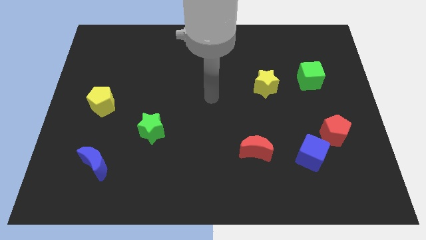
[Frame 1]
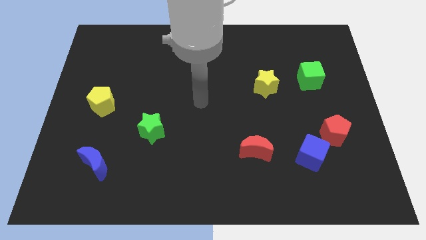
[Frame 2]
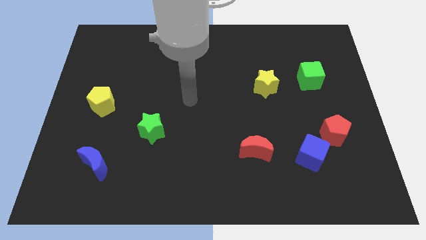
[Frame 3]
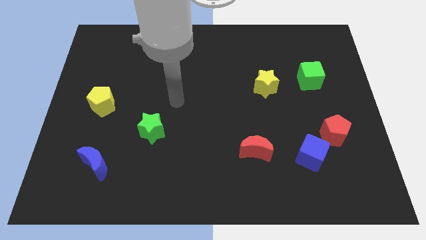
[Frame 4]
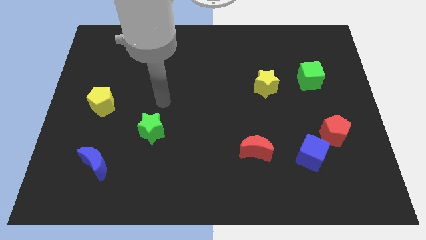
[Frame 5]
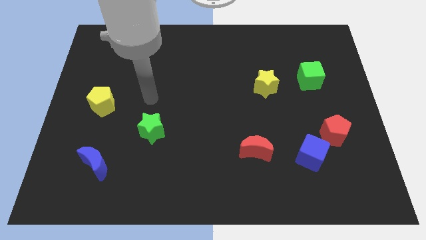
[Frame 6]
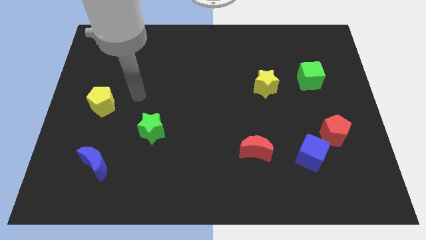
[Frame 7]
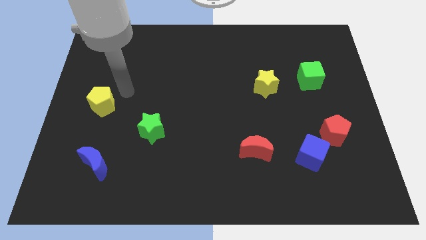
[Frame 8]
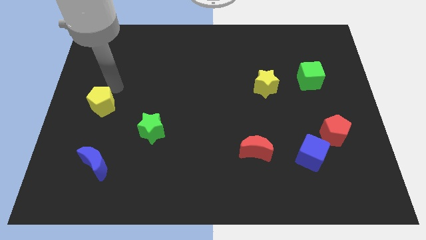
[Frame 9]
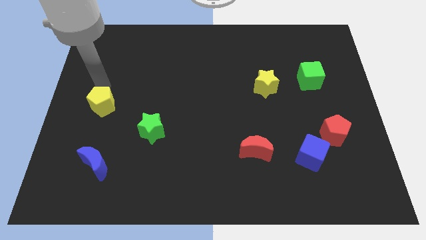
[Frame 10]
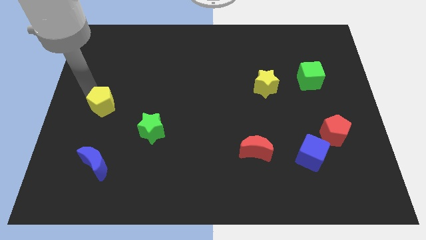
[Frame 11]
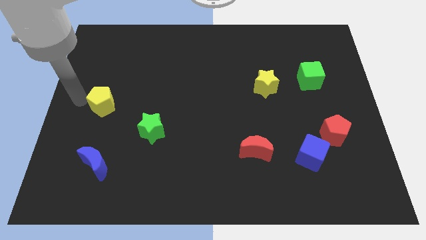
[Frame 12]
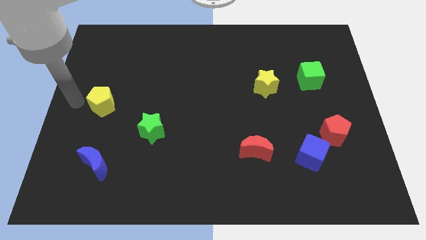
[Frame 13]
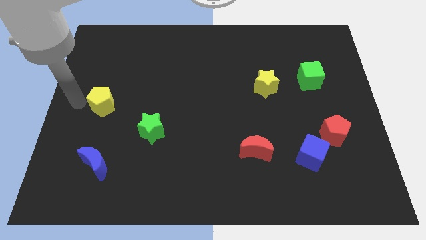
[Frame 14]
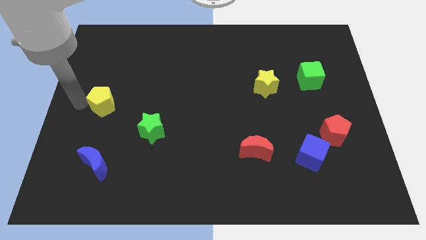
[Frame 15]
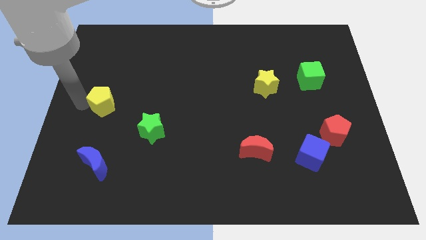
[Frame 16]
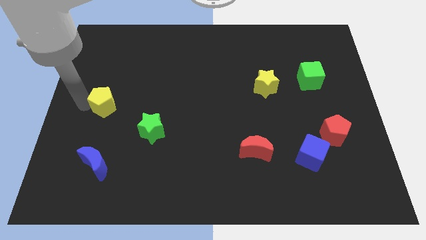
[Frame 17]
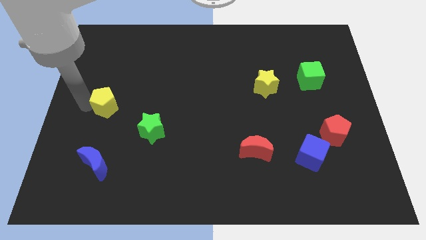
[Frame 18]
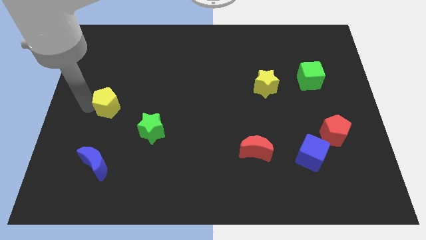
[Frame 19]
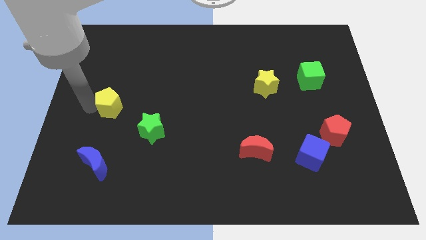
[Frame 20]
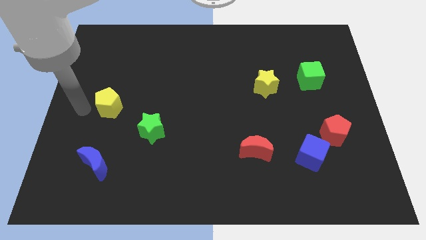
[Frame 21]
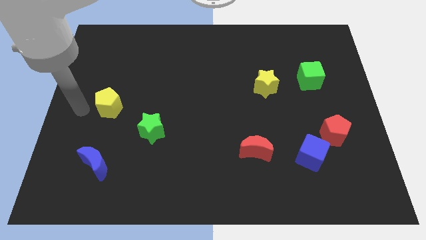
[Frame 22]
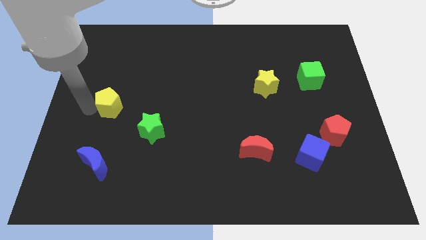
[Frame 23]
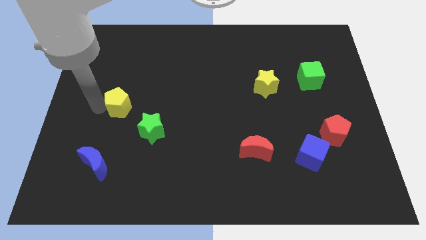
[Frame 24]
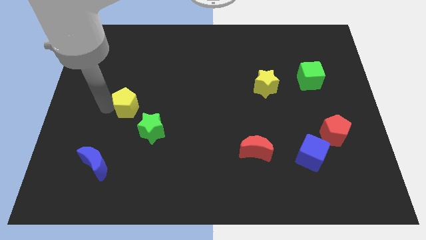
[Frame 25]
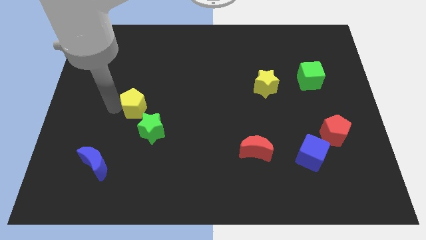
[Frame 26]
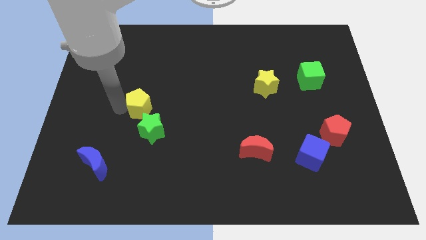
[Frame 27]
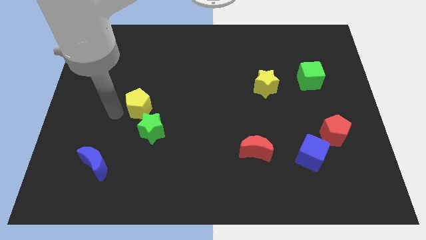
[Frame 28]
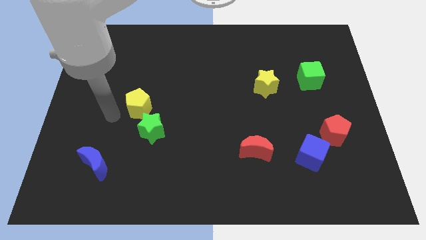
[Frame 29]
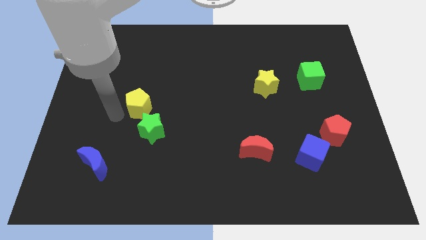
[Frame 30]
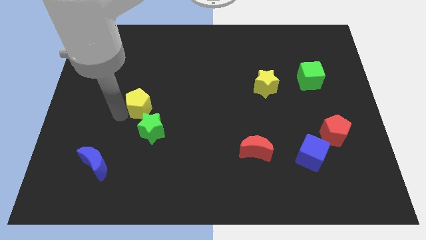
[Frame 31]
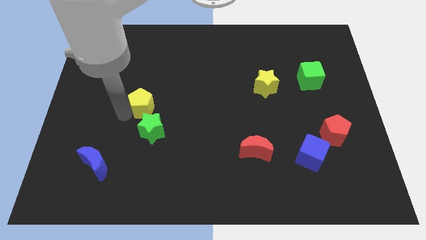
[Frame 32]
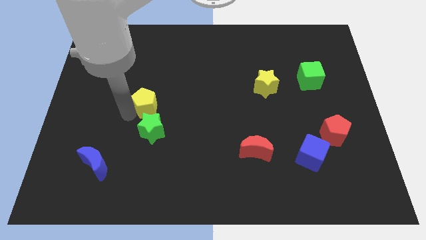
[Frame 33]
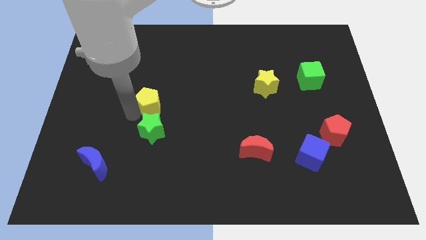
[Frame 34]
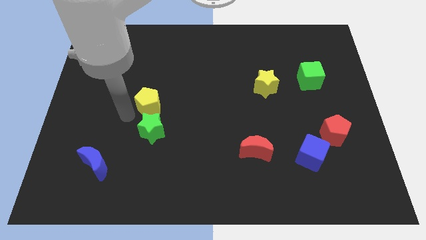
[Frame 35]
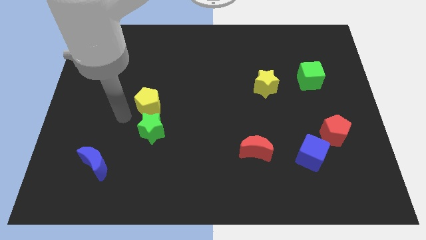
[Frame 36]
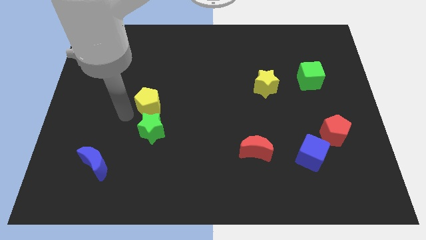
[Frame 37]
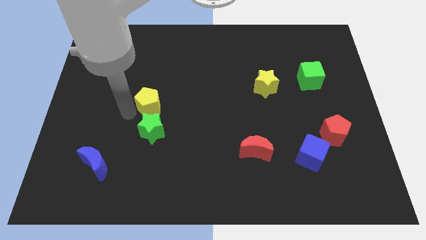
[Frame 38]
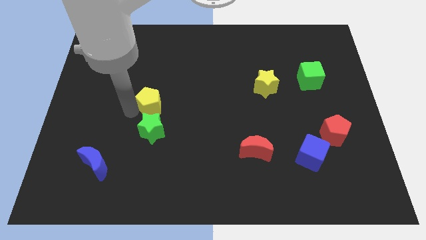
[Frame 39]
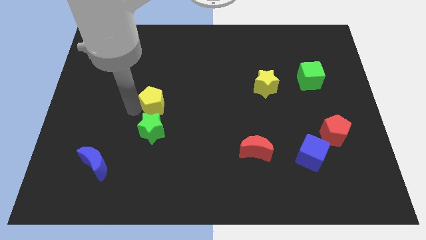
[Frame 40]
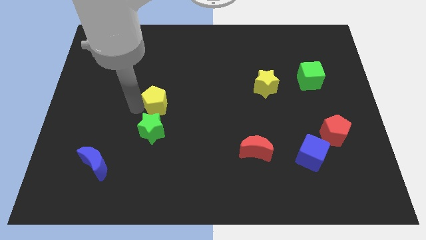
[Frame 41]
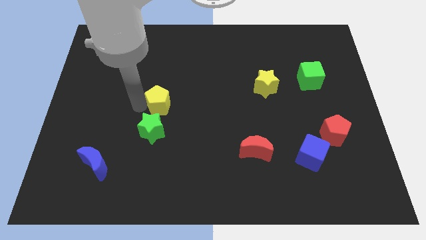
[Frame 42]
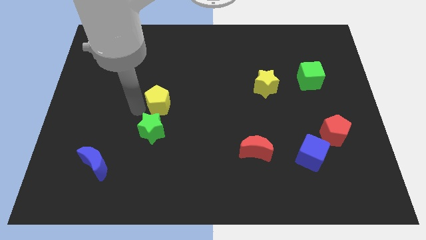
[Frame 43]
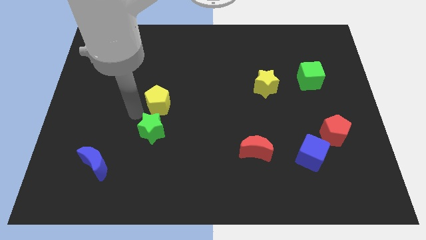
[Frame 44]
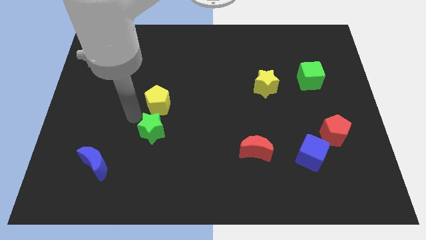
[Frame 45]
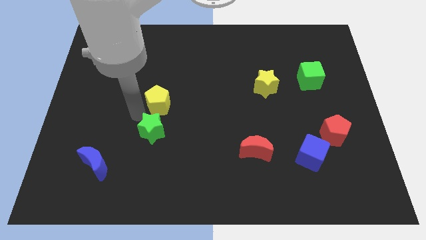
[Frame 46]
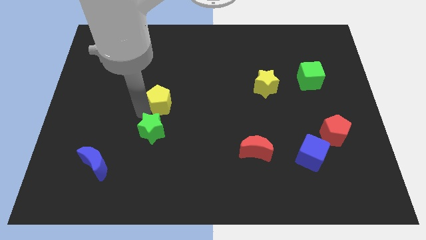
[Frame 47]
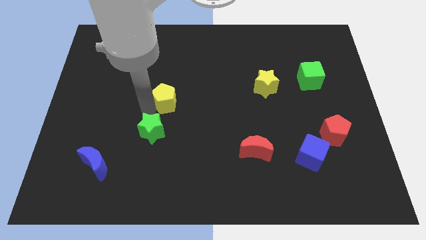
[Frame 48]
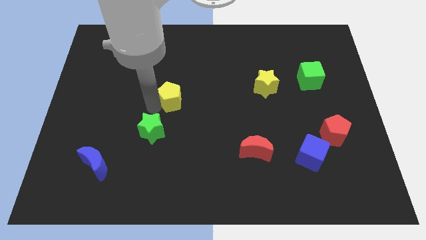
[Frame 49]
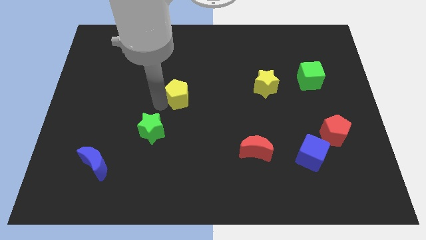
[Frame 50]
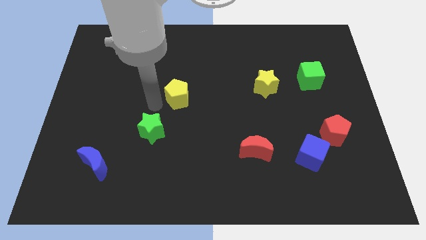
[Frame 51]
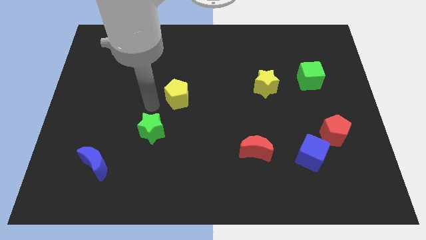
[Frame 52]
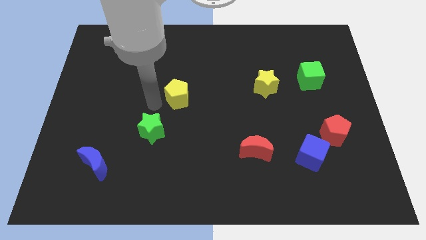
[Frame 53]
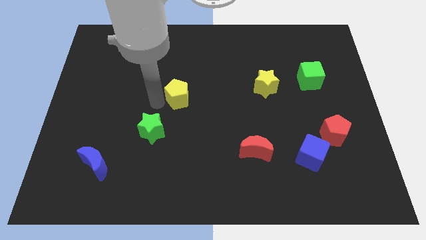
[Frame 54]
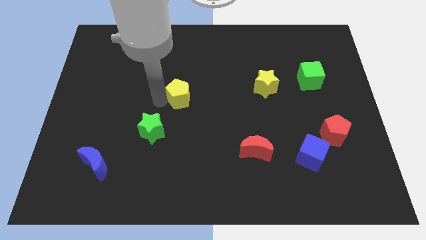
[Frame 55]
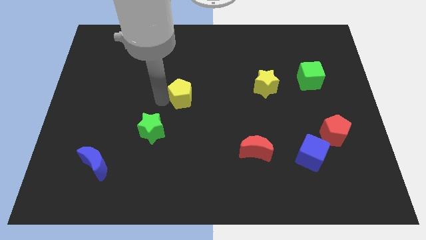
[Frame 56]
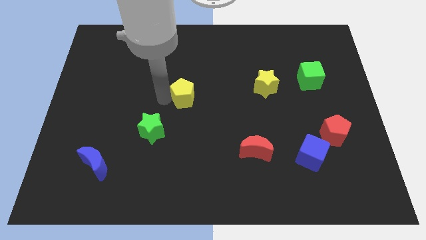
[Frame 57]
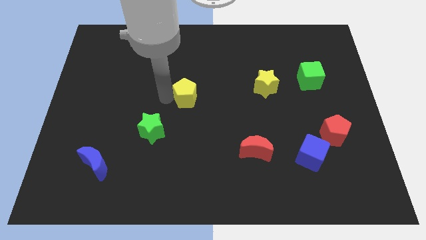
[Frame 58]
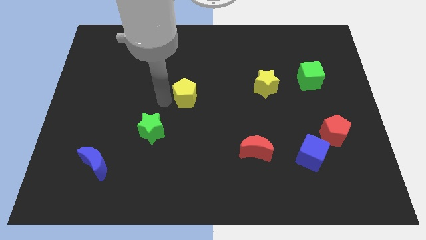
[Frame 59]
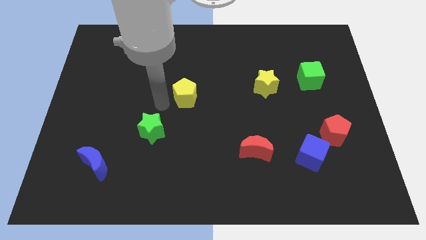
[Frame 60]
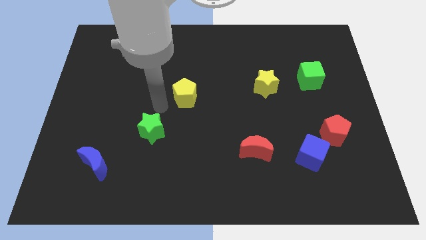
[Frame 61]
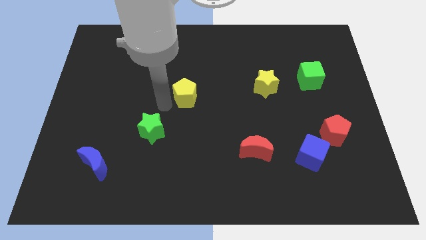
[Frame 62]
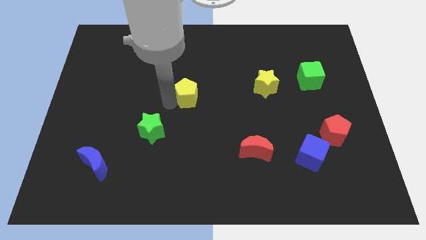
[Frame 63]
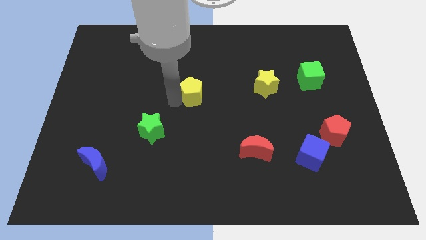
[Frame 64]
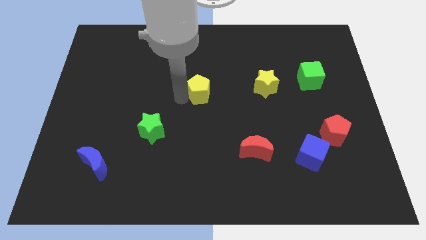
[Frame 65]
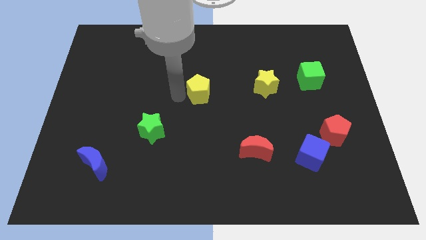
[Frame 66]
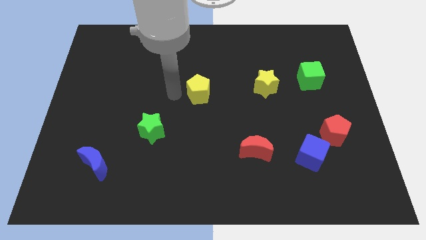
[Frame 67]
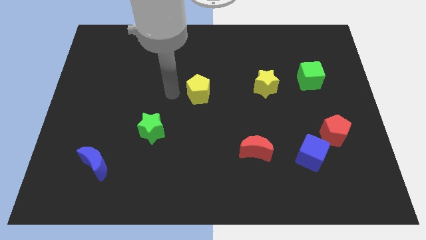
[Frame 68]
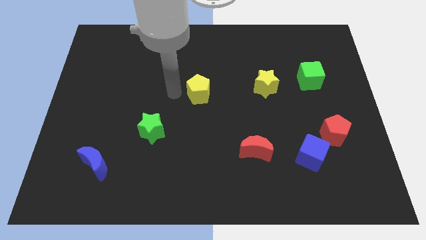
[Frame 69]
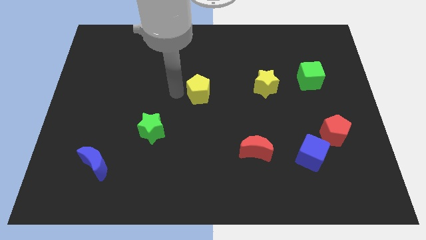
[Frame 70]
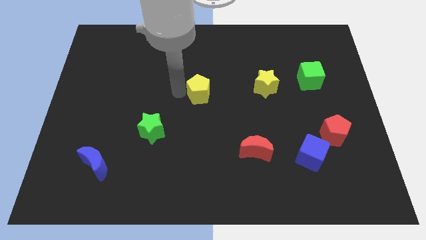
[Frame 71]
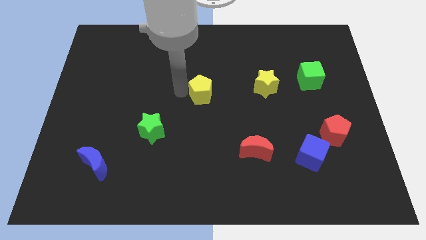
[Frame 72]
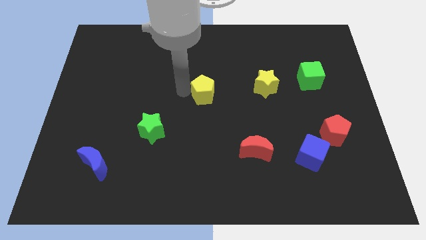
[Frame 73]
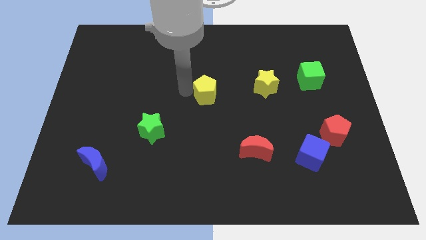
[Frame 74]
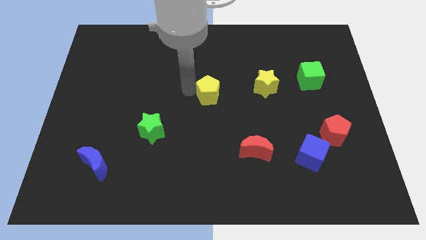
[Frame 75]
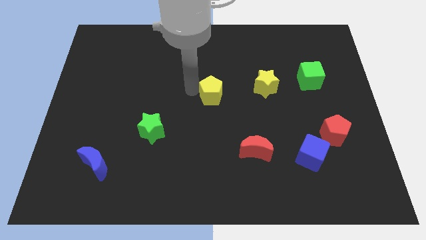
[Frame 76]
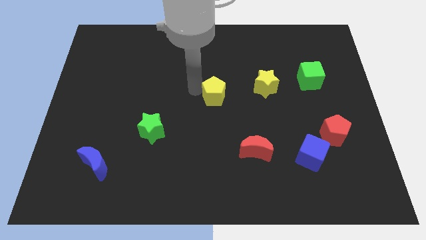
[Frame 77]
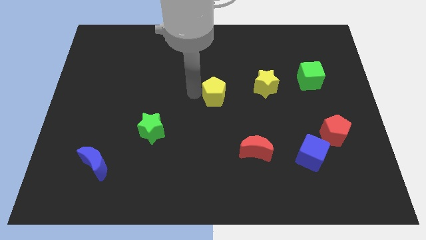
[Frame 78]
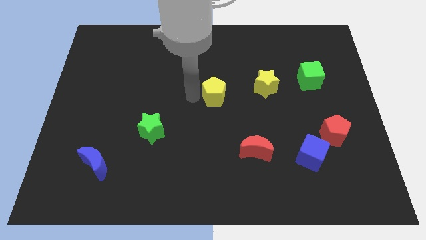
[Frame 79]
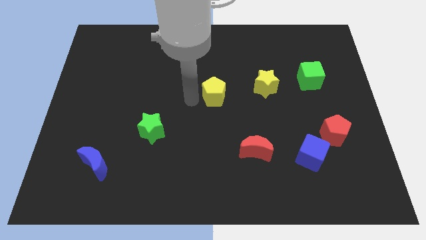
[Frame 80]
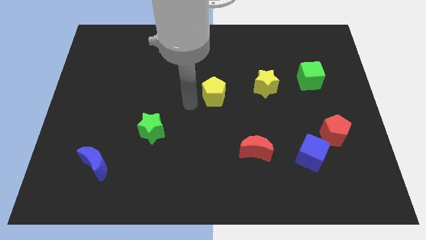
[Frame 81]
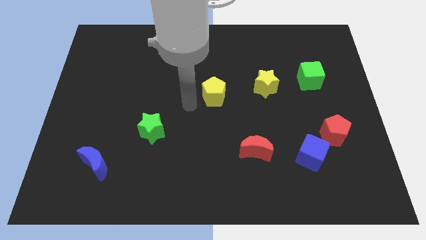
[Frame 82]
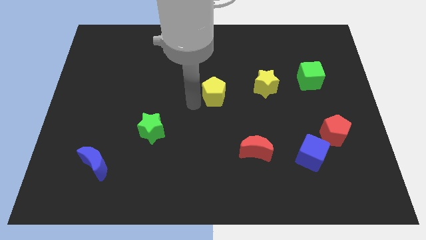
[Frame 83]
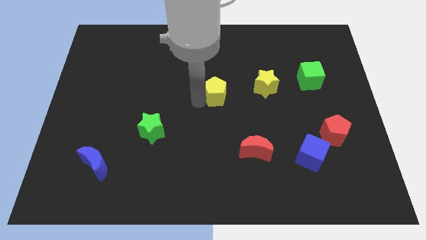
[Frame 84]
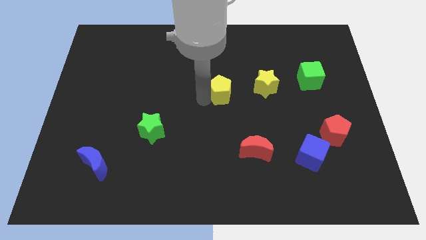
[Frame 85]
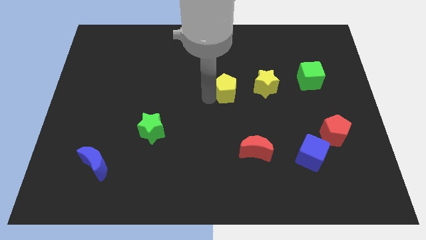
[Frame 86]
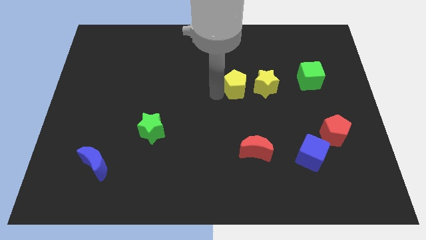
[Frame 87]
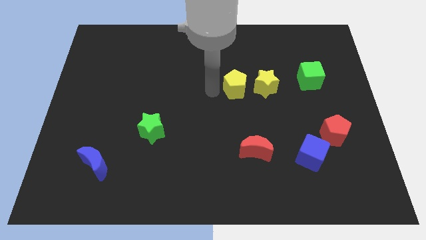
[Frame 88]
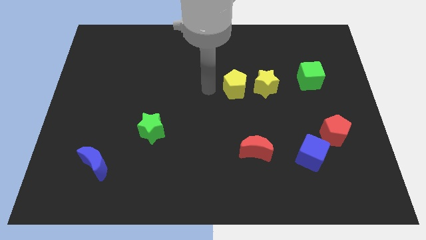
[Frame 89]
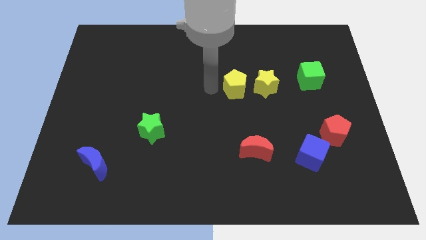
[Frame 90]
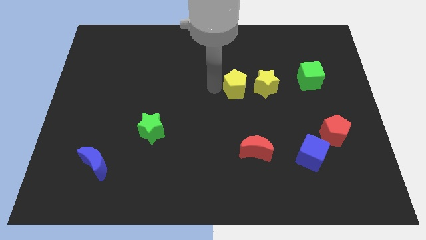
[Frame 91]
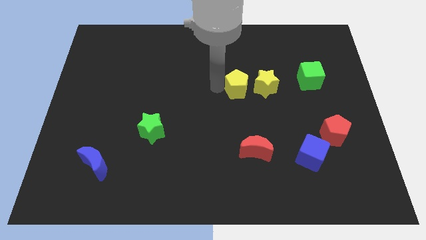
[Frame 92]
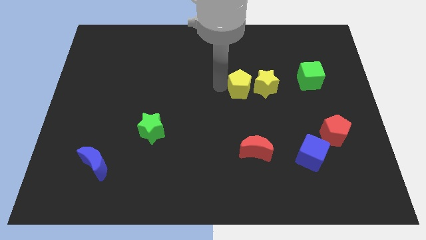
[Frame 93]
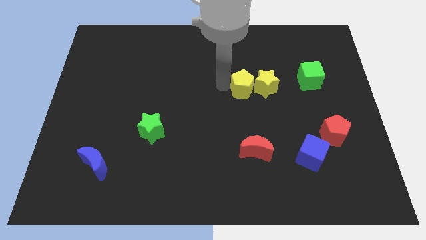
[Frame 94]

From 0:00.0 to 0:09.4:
push the yellow pentagon to the yellow star
